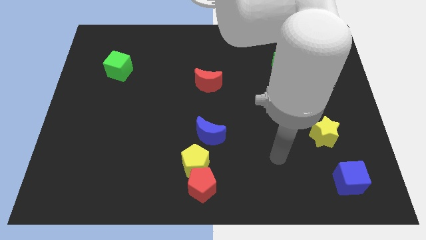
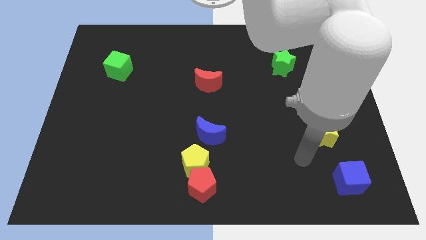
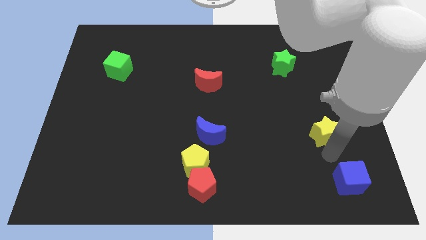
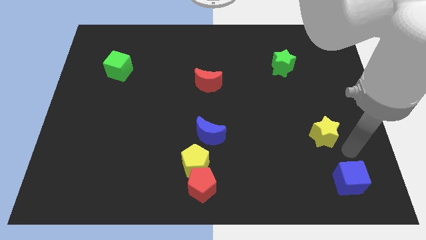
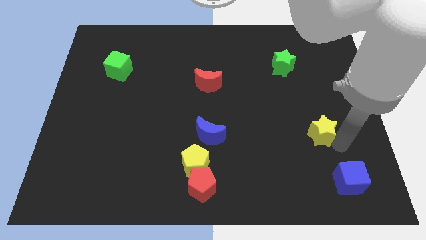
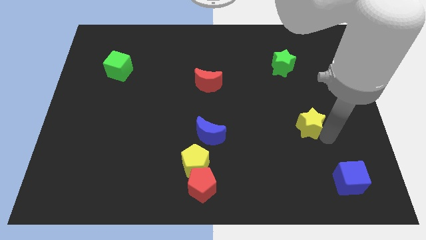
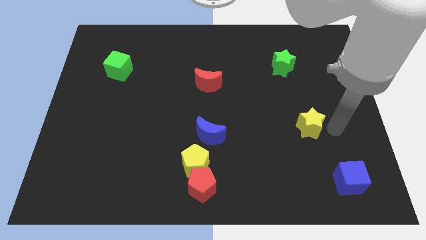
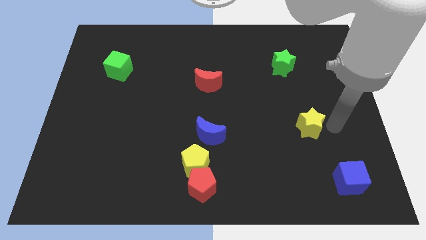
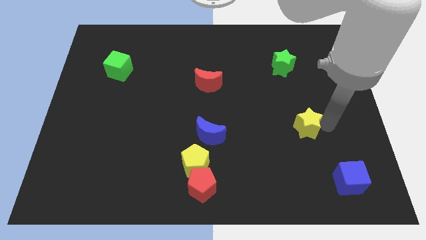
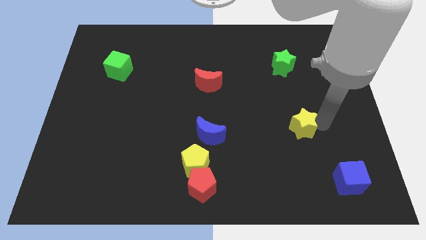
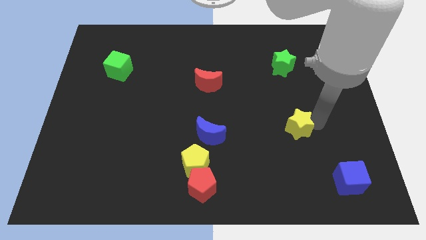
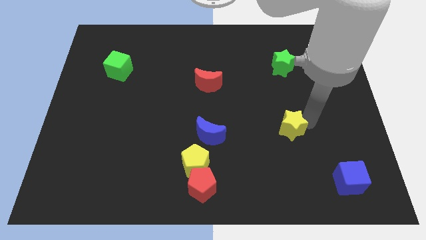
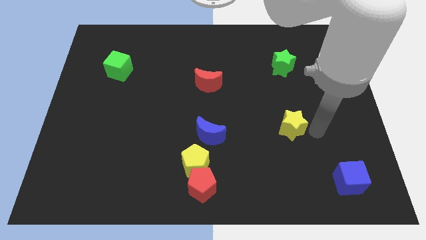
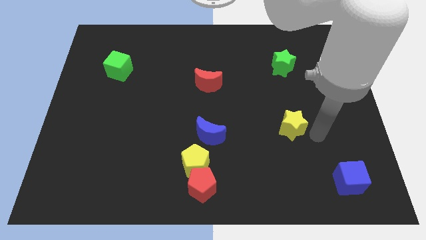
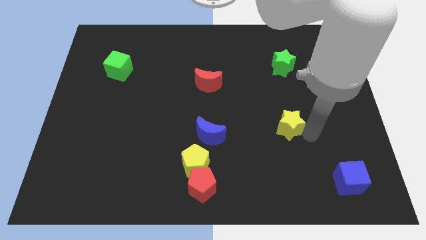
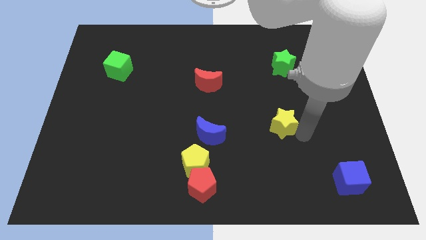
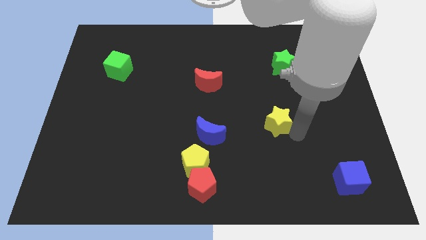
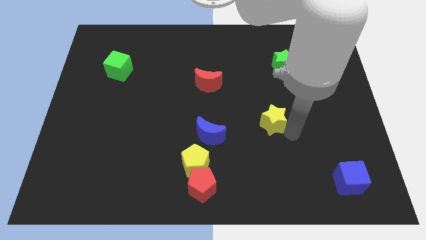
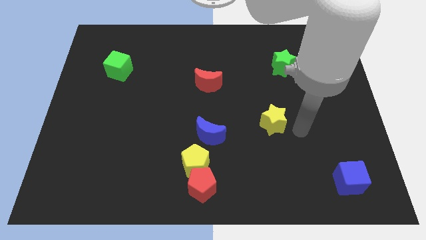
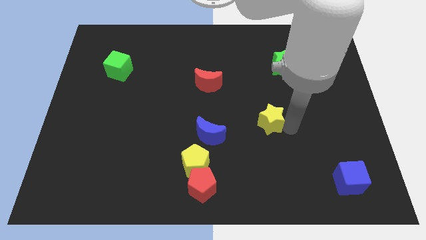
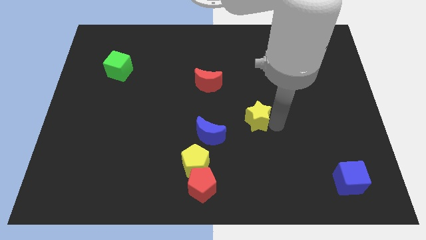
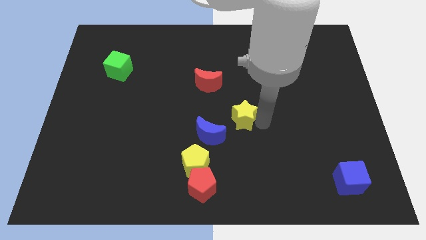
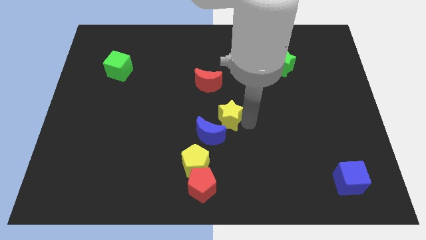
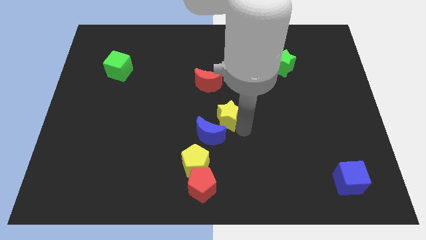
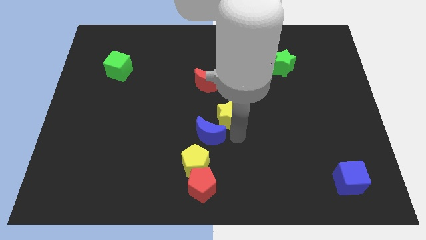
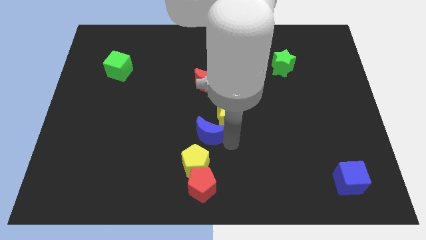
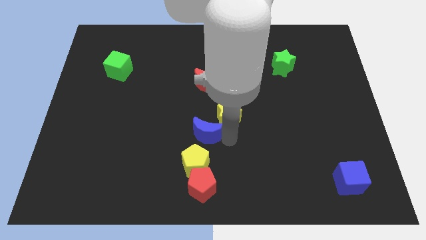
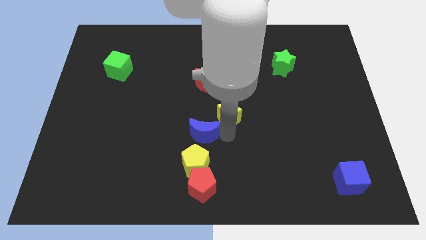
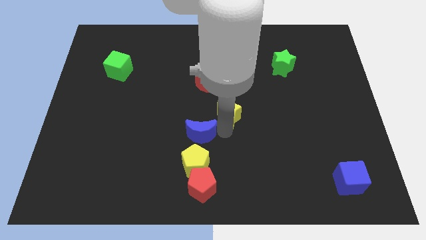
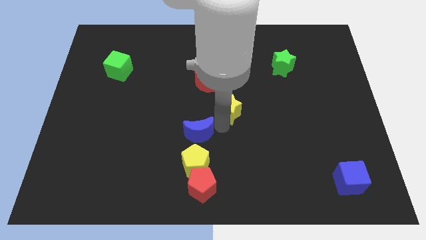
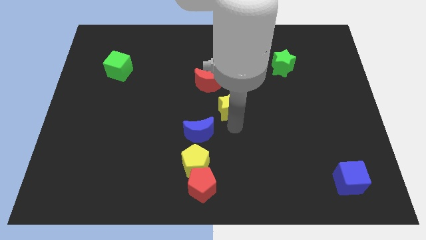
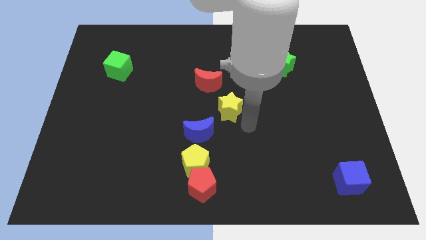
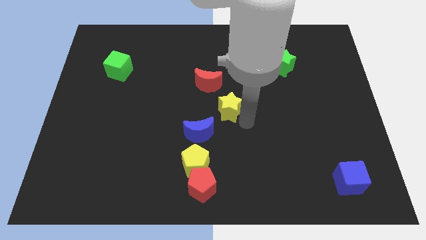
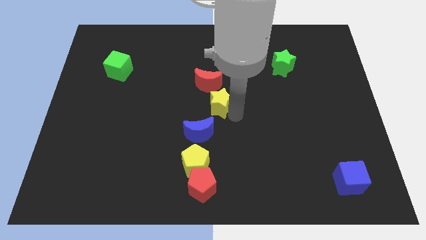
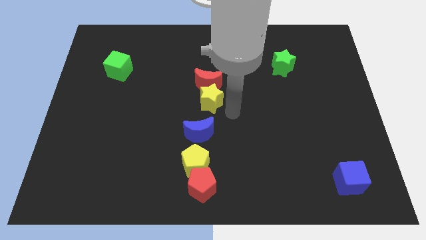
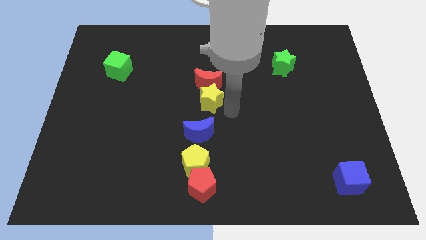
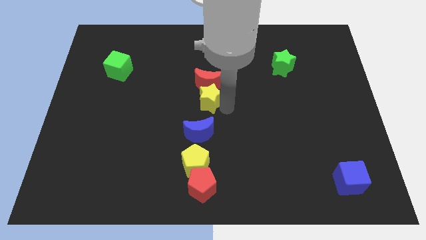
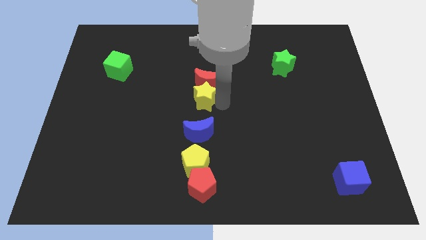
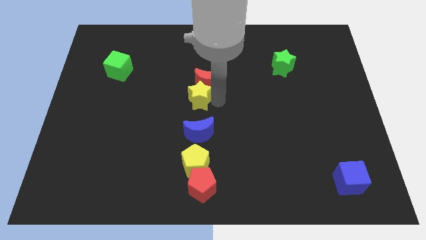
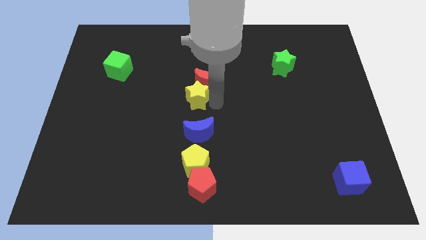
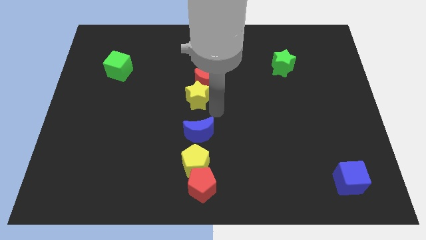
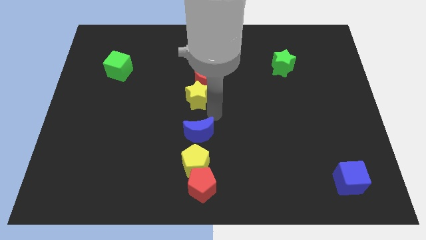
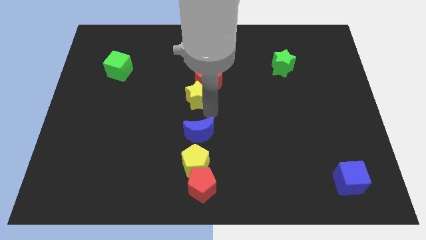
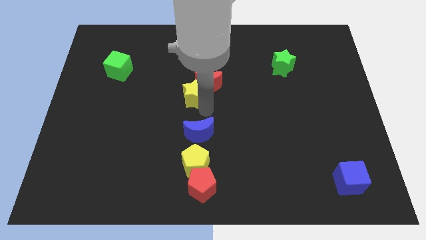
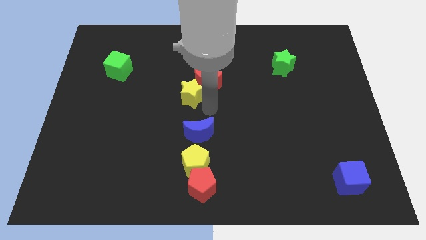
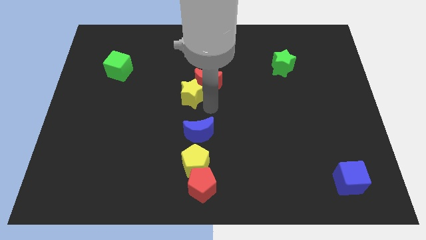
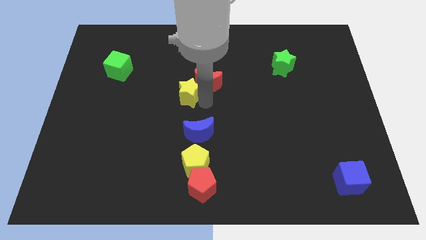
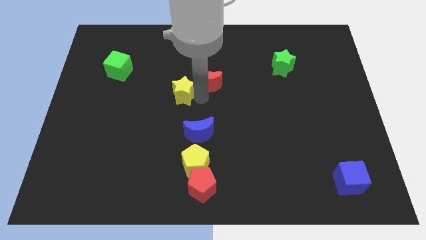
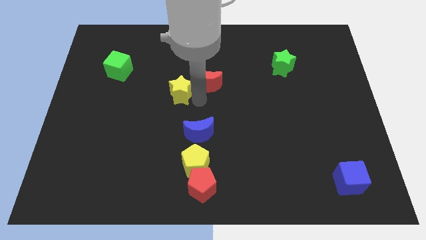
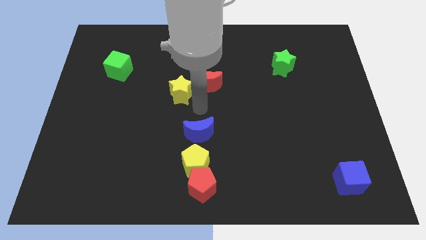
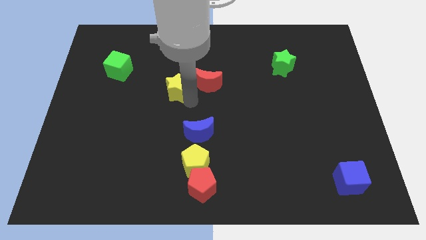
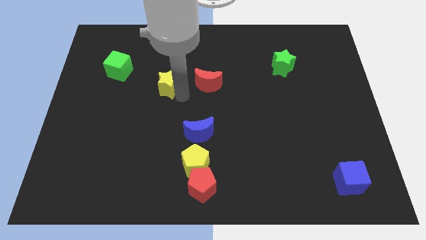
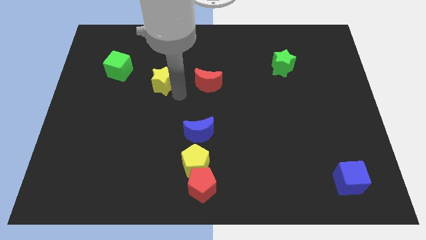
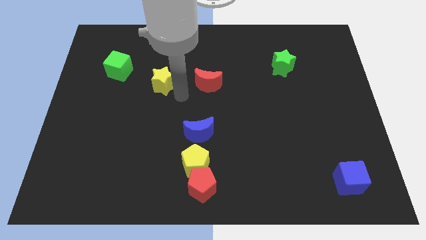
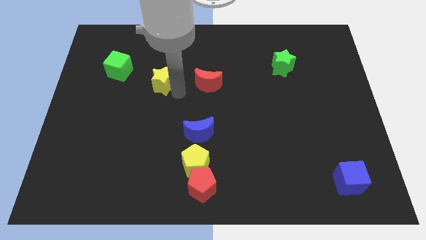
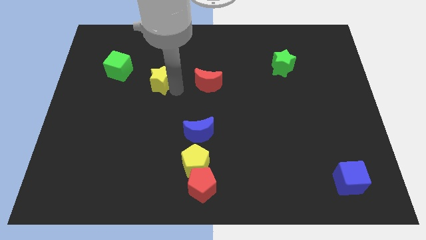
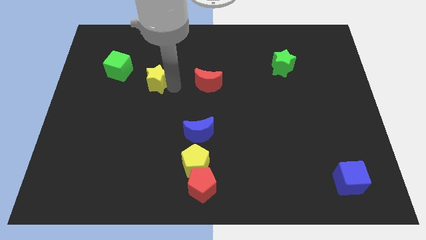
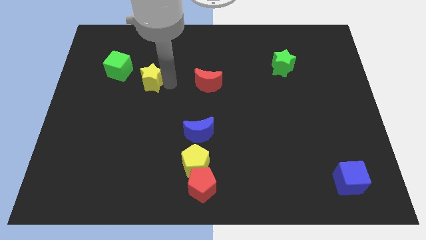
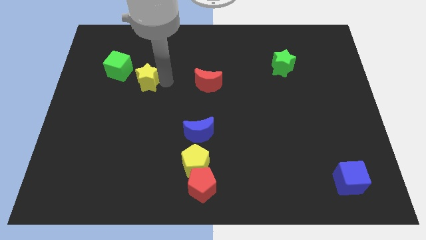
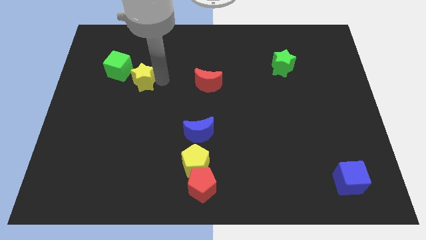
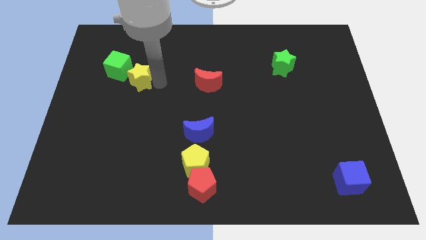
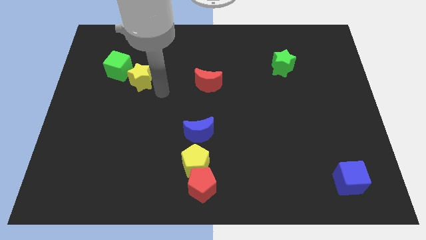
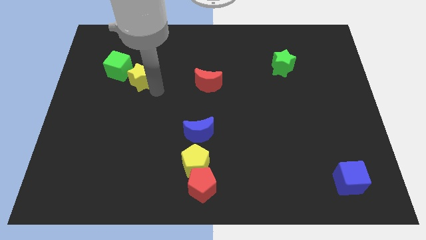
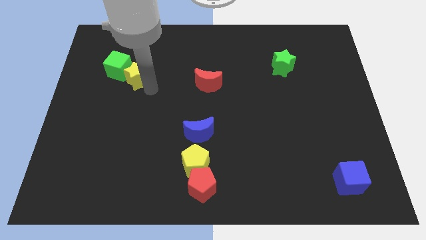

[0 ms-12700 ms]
put the yellow star close to the green cube
